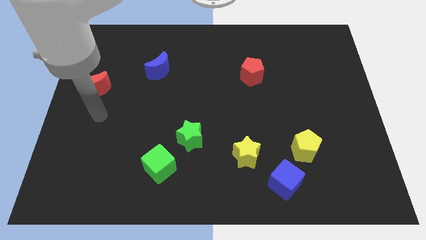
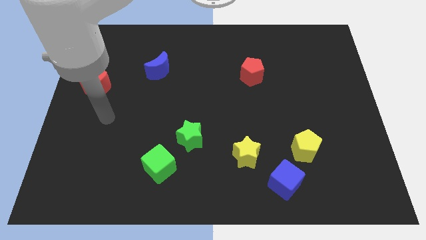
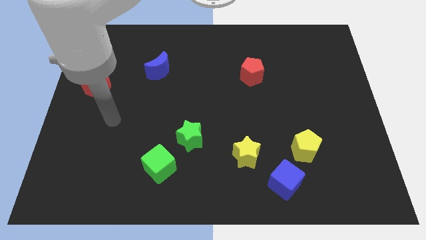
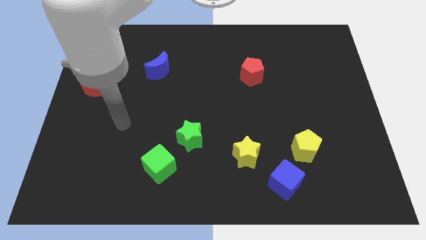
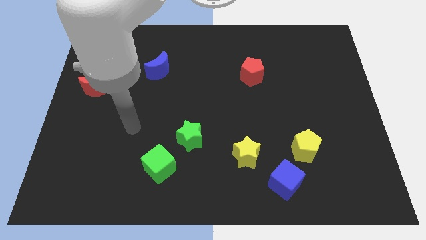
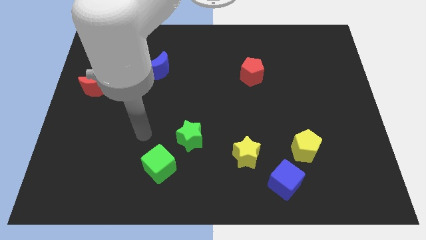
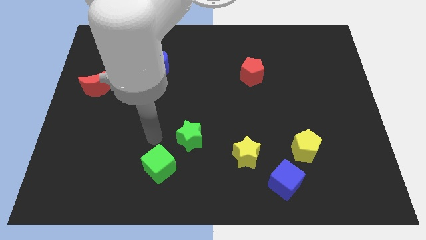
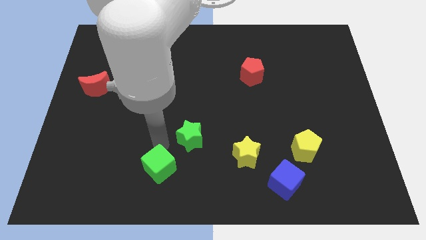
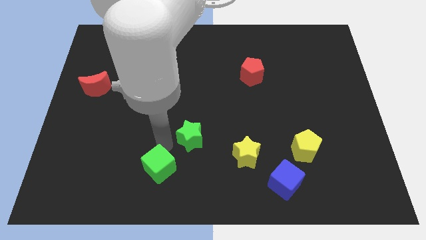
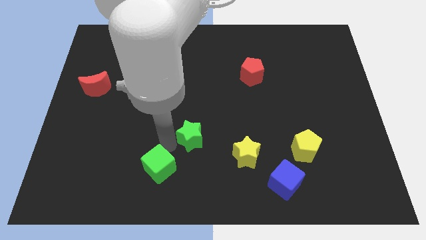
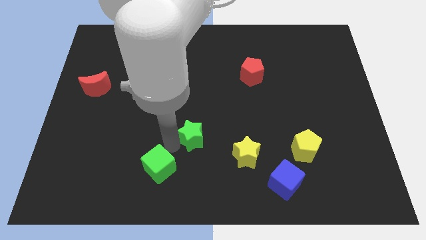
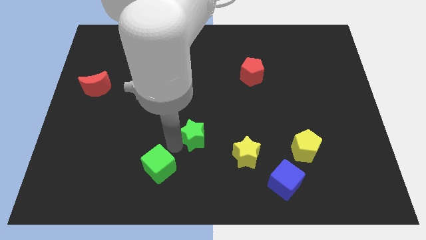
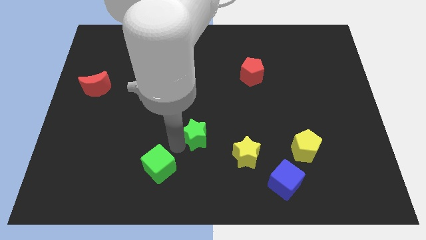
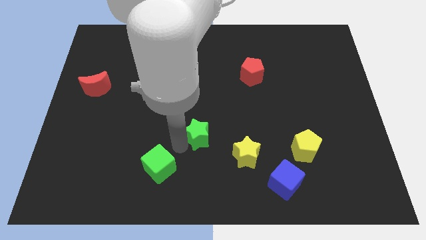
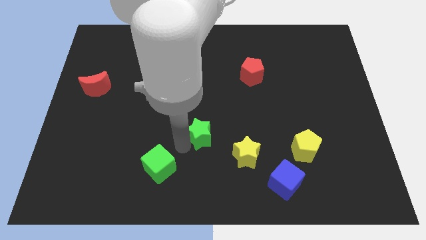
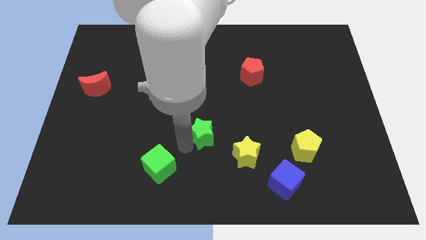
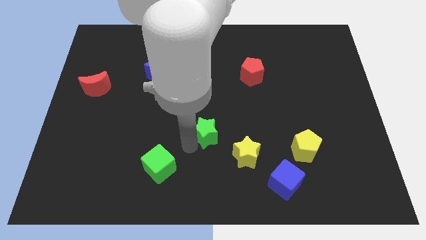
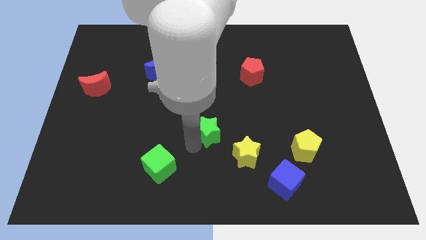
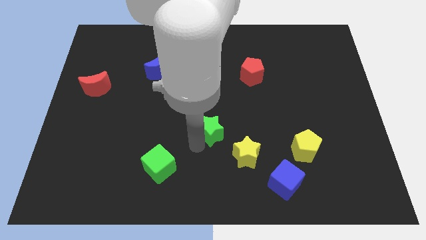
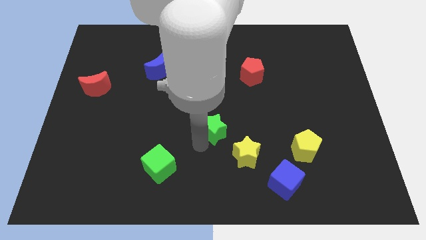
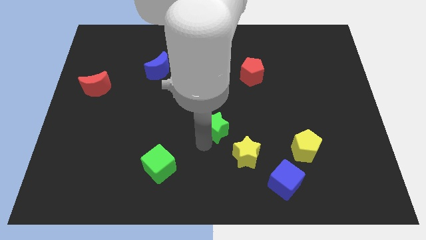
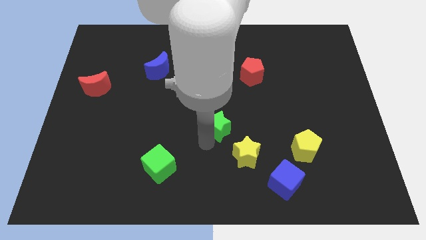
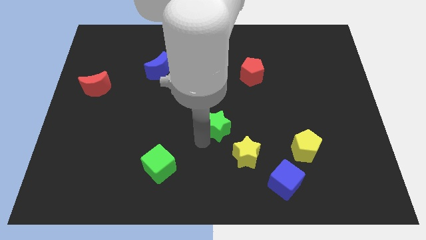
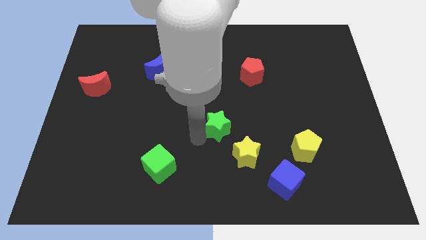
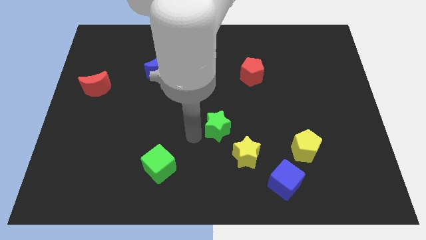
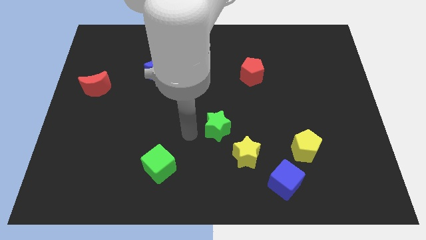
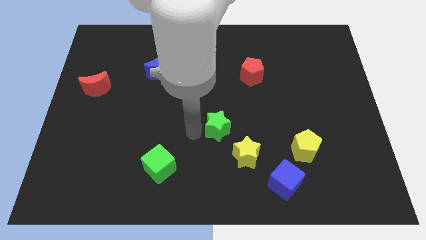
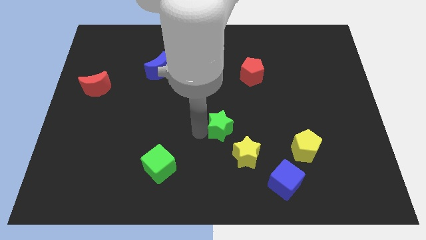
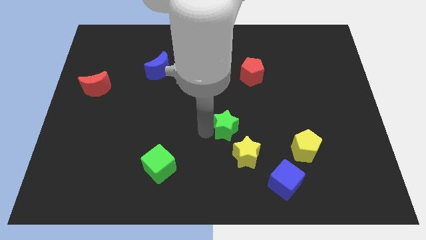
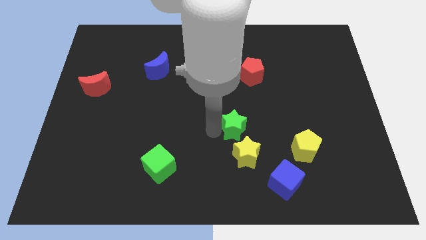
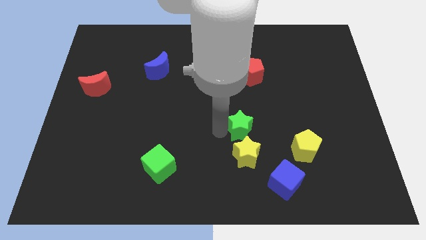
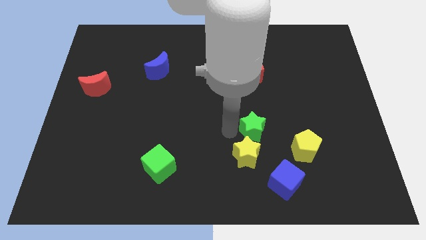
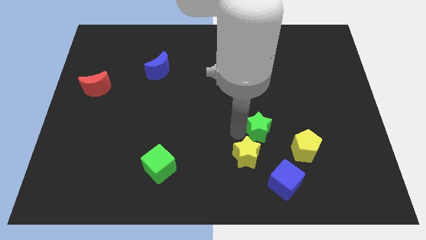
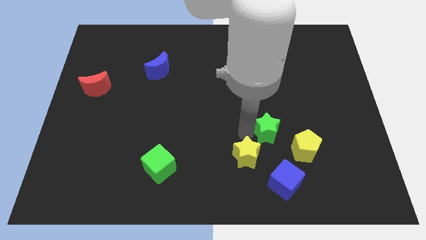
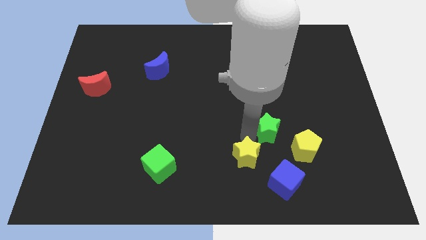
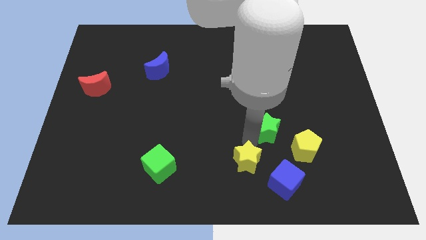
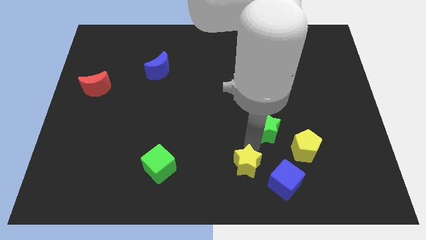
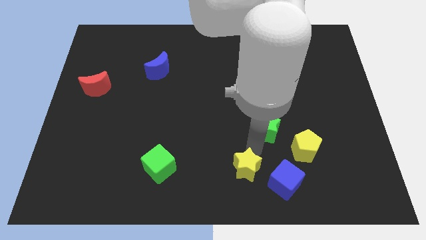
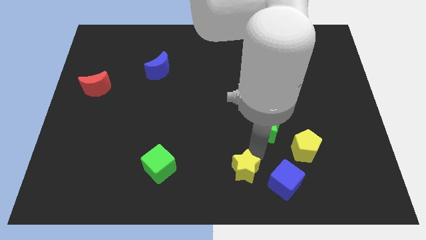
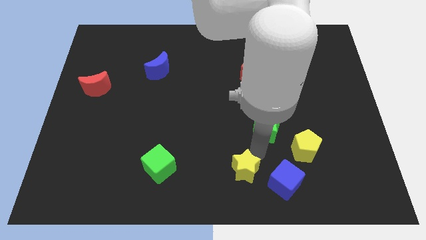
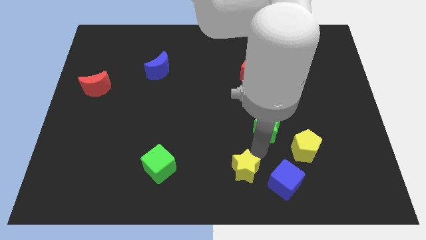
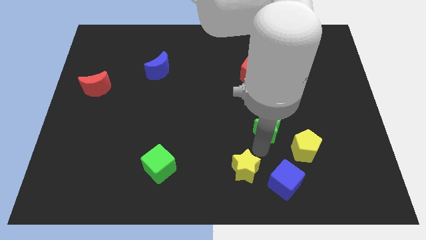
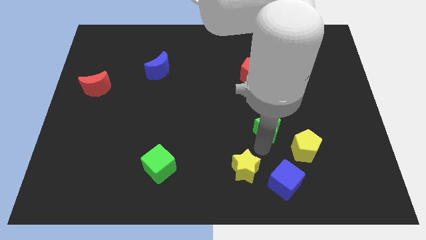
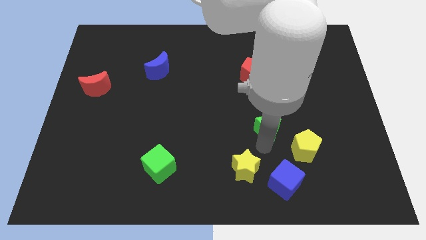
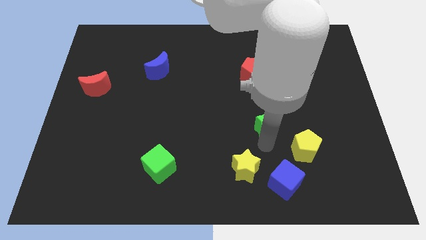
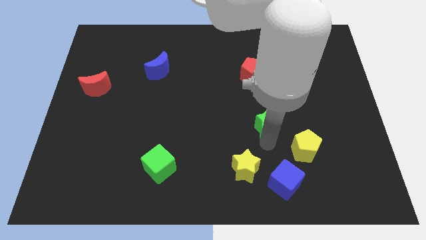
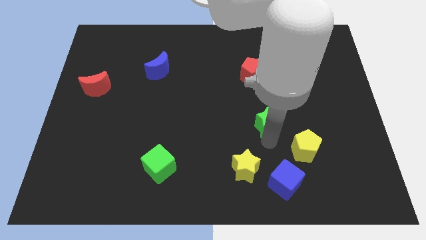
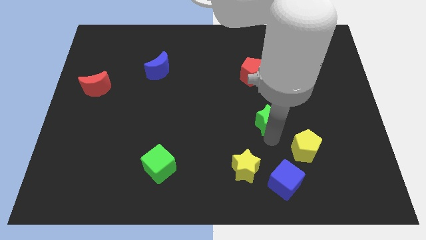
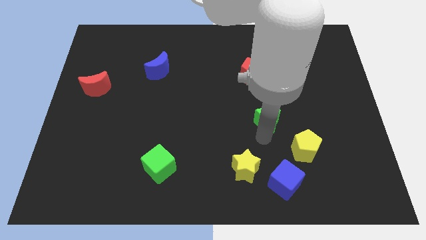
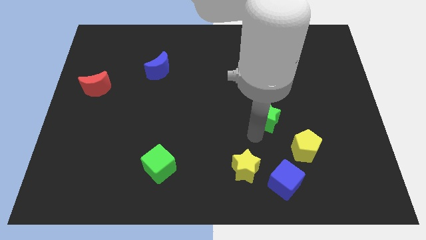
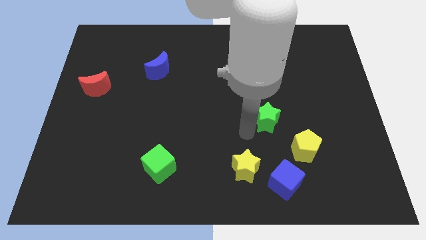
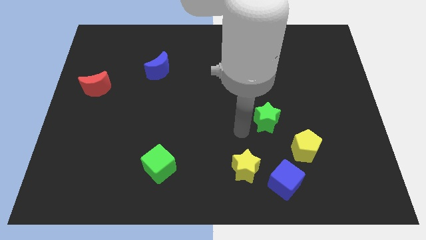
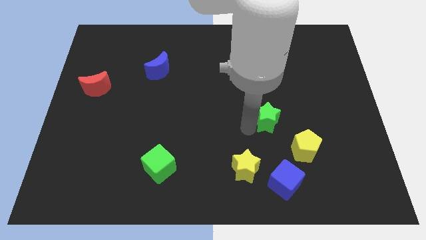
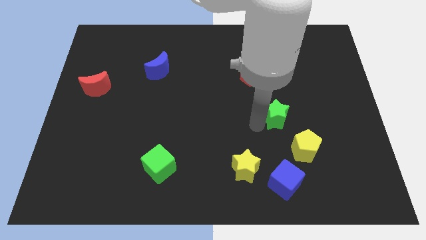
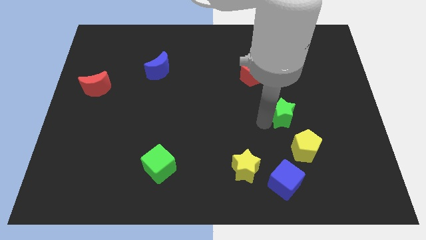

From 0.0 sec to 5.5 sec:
move the green star above the yellow pentagon
